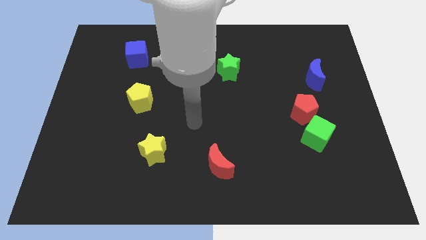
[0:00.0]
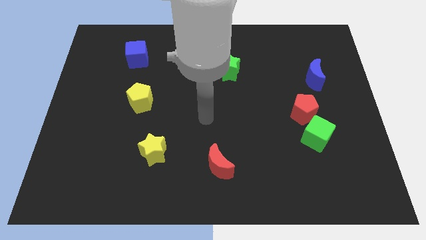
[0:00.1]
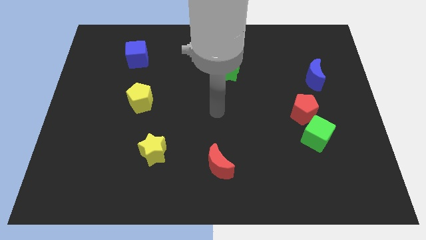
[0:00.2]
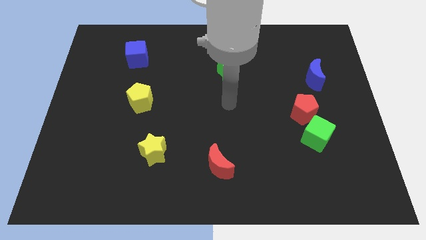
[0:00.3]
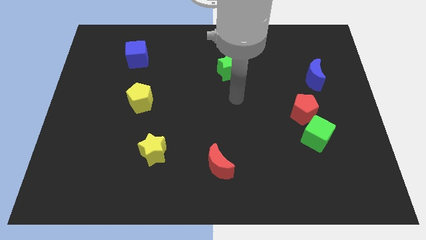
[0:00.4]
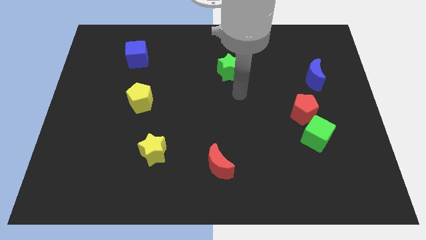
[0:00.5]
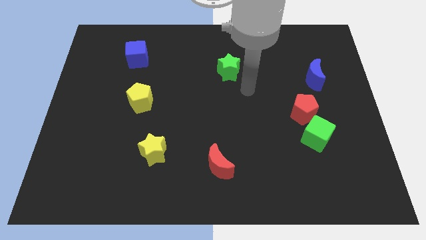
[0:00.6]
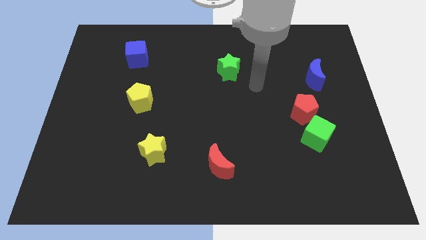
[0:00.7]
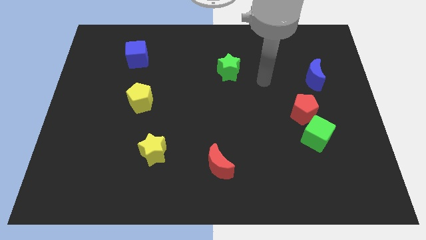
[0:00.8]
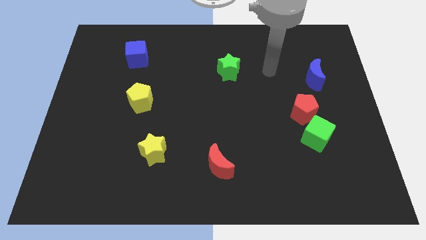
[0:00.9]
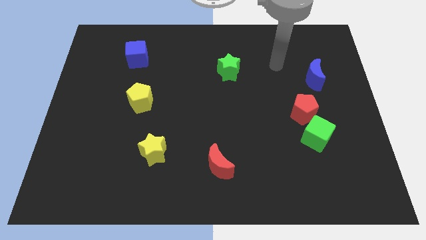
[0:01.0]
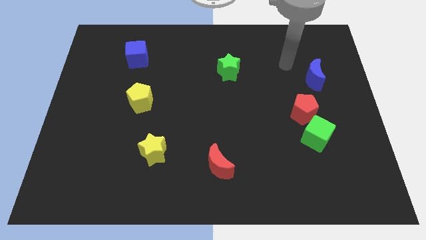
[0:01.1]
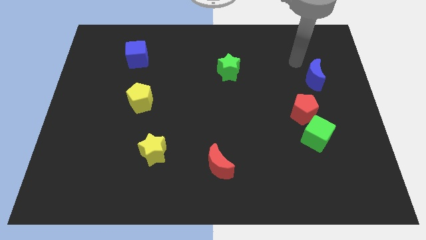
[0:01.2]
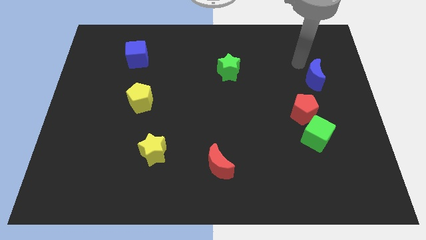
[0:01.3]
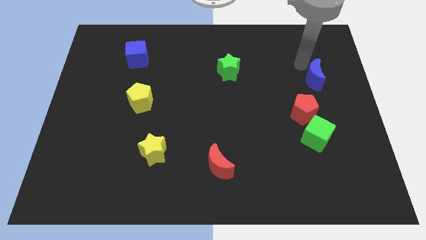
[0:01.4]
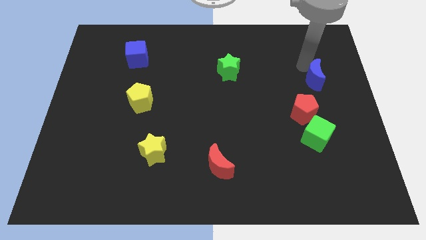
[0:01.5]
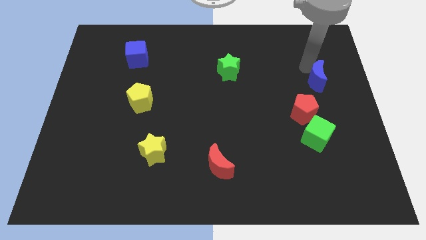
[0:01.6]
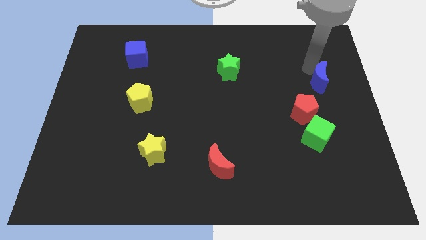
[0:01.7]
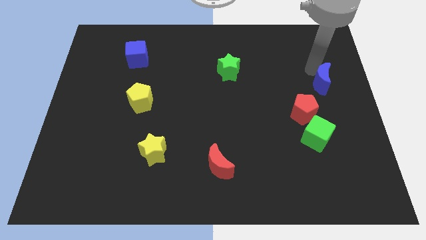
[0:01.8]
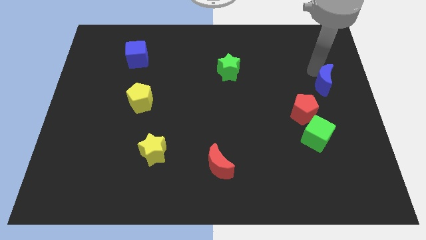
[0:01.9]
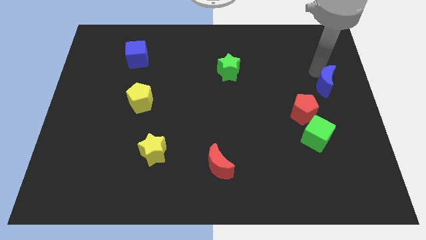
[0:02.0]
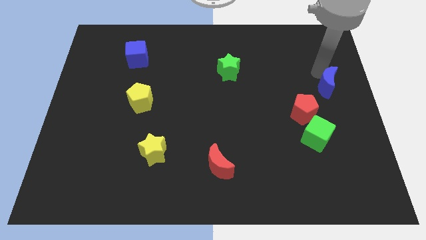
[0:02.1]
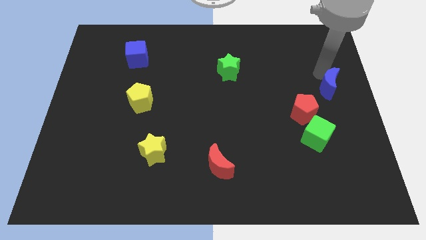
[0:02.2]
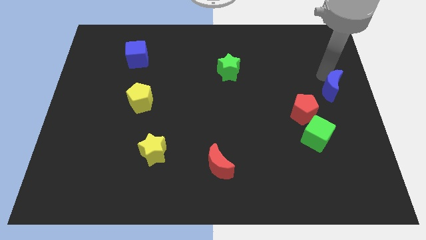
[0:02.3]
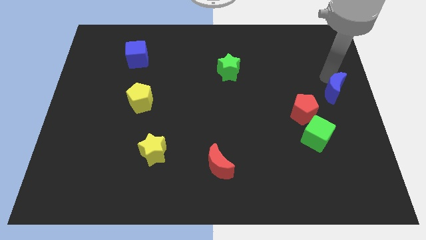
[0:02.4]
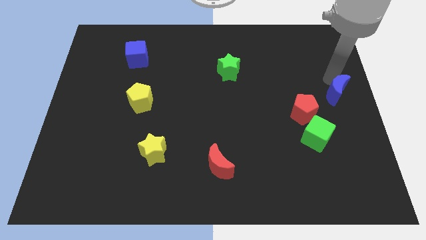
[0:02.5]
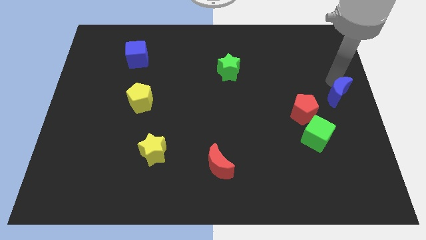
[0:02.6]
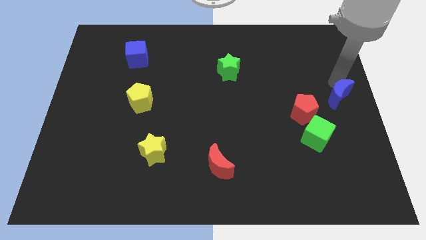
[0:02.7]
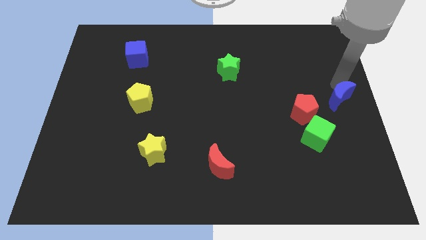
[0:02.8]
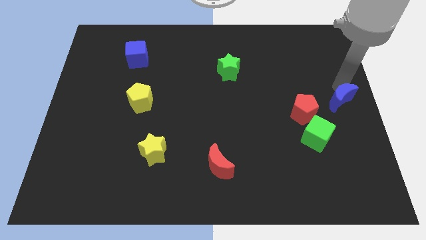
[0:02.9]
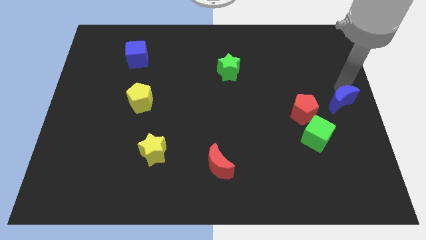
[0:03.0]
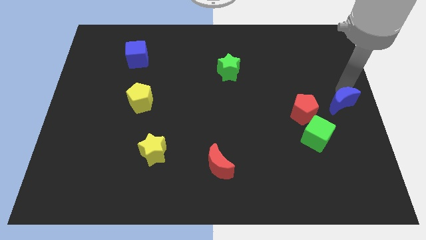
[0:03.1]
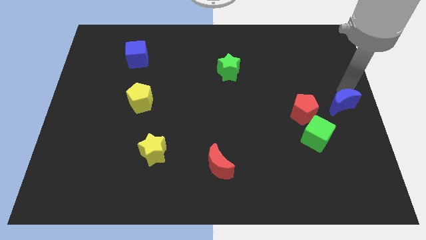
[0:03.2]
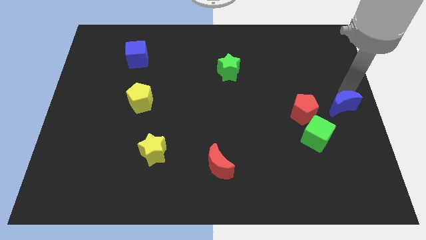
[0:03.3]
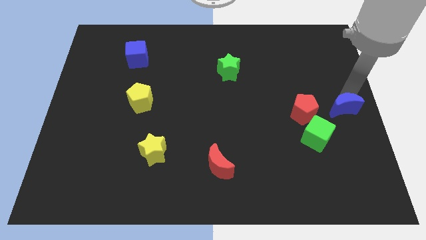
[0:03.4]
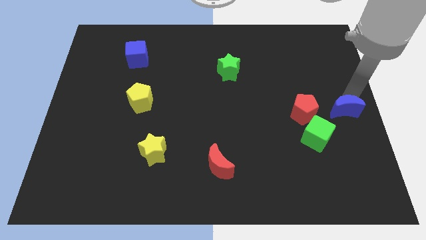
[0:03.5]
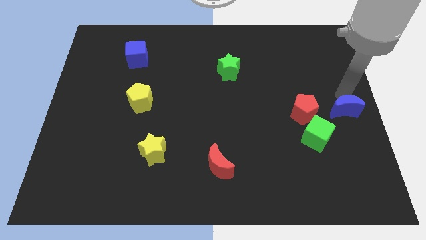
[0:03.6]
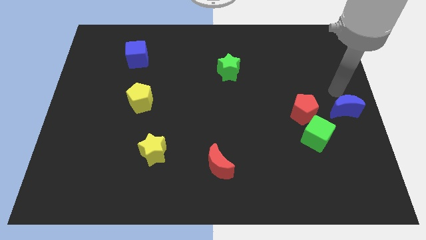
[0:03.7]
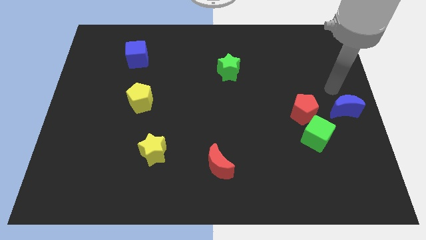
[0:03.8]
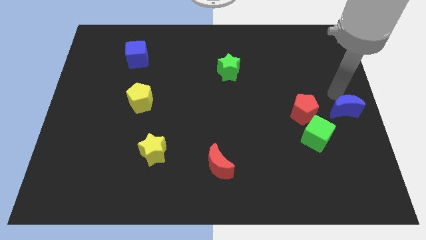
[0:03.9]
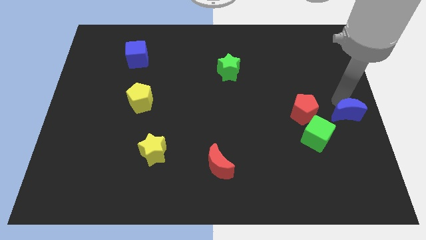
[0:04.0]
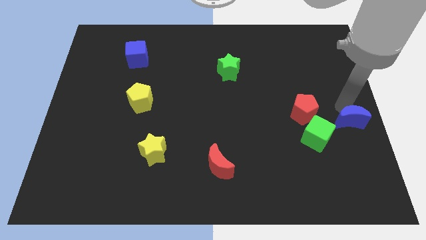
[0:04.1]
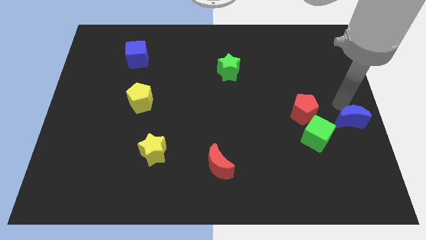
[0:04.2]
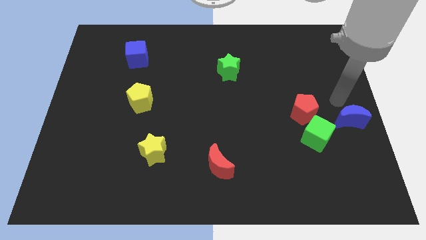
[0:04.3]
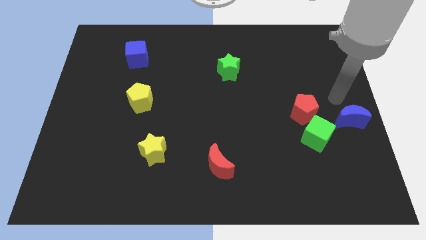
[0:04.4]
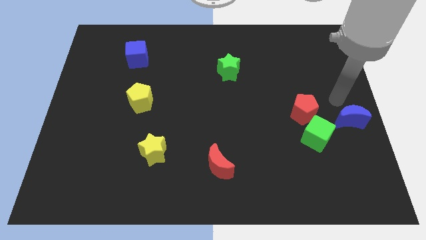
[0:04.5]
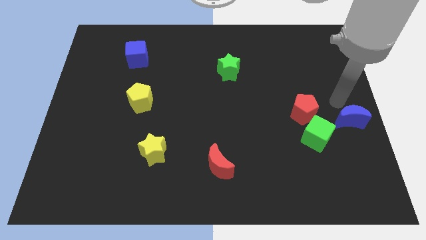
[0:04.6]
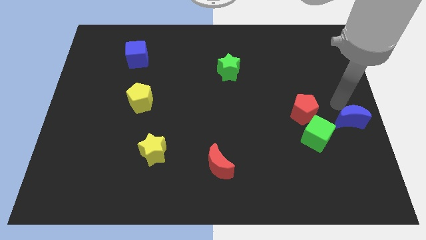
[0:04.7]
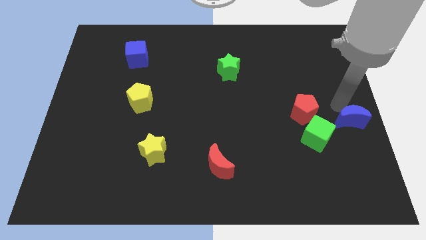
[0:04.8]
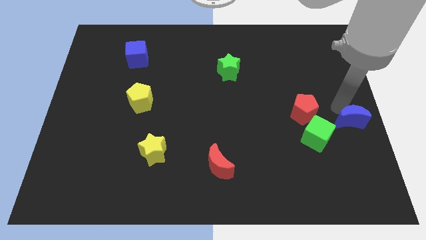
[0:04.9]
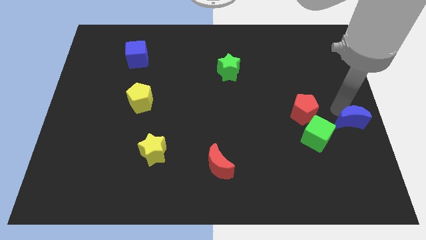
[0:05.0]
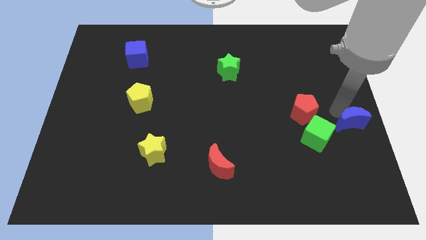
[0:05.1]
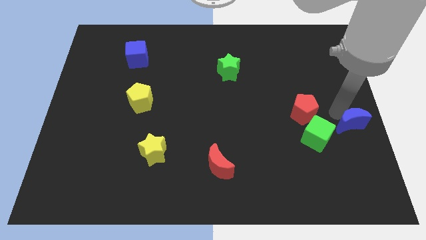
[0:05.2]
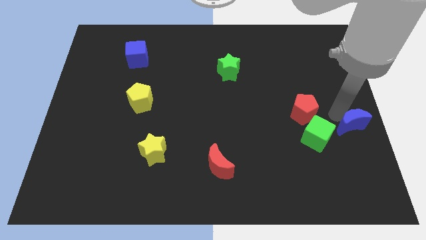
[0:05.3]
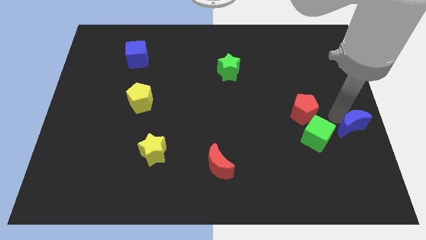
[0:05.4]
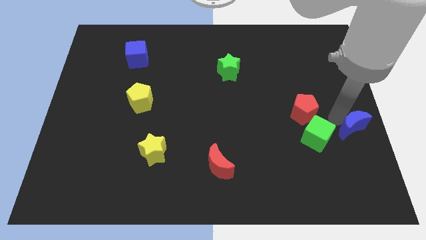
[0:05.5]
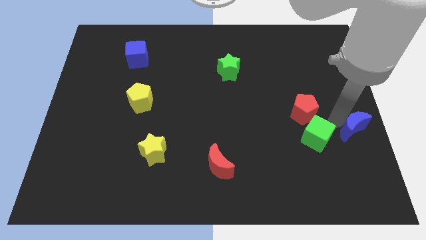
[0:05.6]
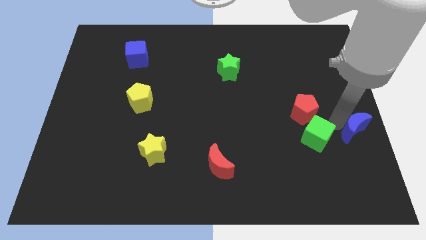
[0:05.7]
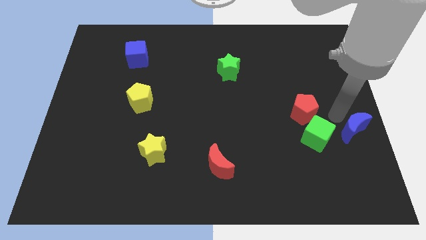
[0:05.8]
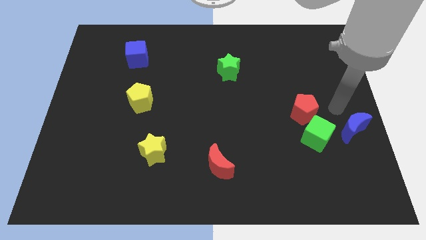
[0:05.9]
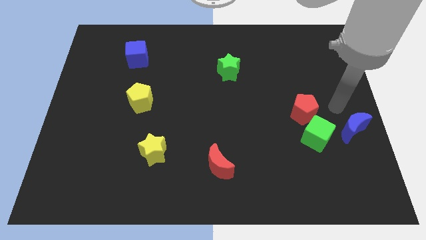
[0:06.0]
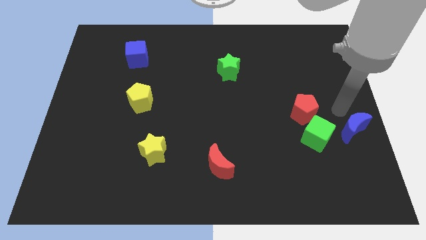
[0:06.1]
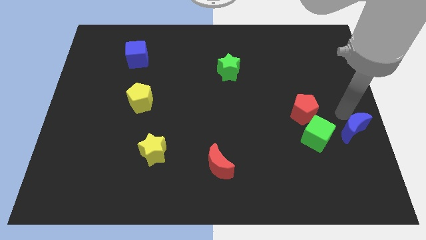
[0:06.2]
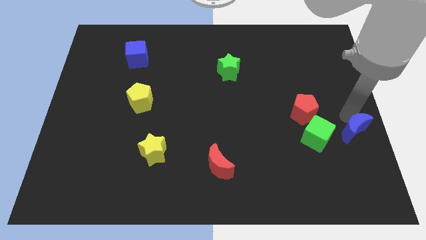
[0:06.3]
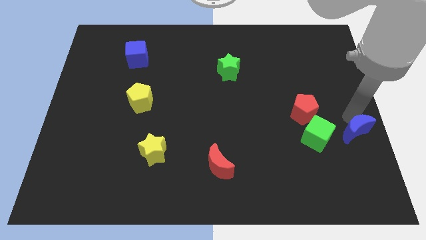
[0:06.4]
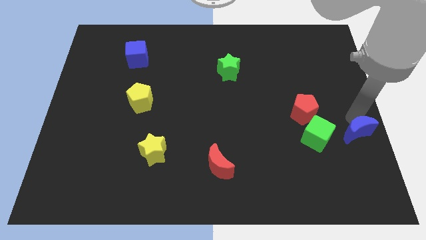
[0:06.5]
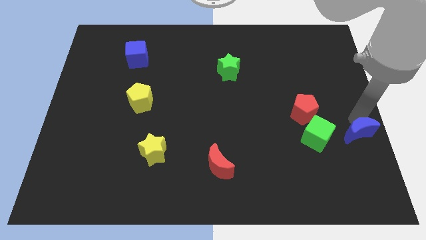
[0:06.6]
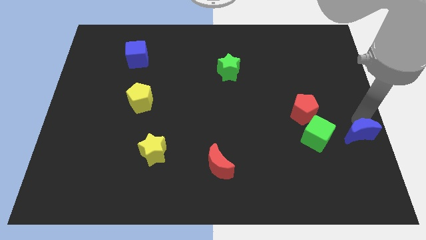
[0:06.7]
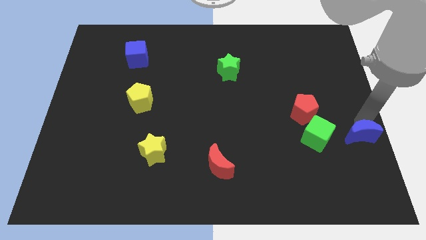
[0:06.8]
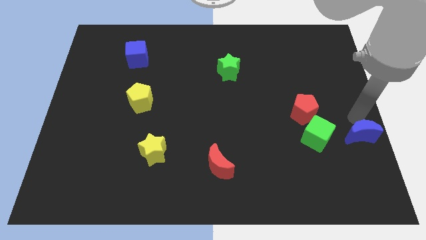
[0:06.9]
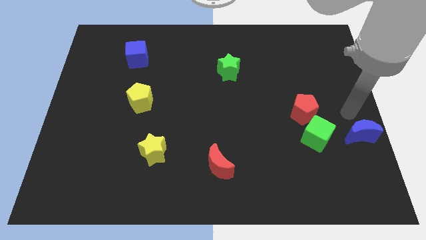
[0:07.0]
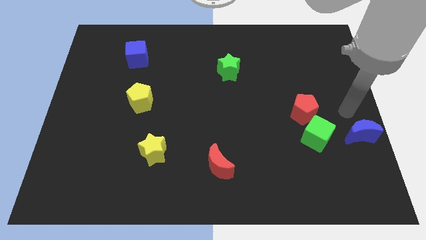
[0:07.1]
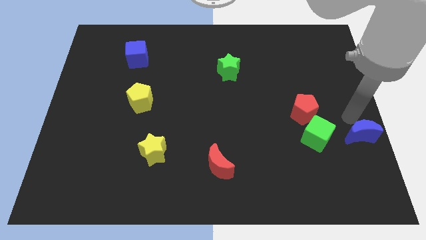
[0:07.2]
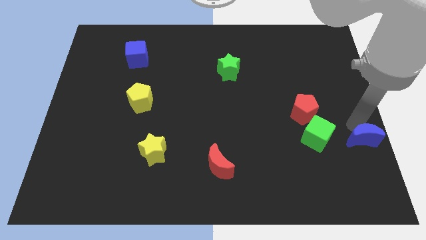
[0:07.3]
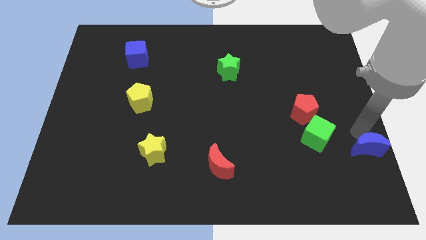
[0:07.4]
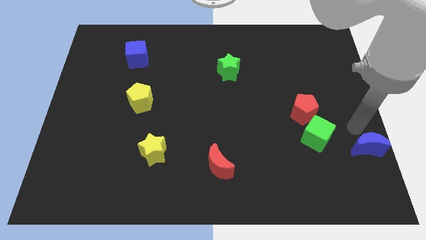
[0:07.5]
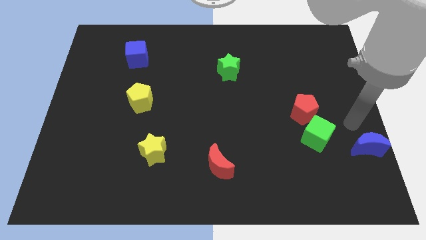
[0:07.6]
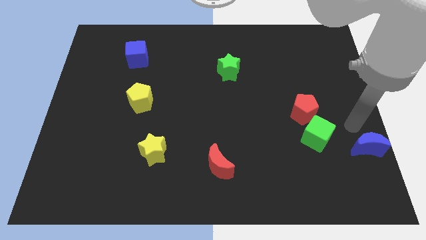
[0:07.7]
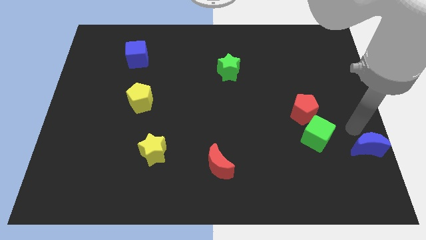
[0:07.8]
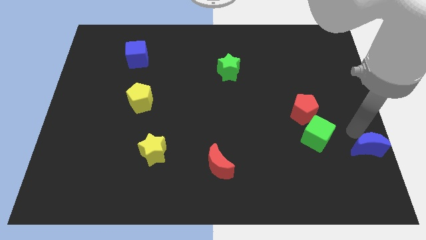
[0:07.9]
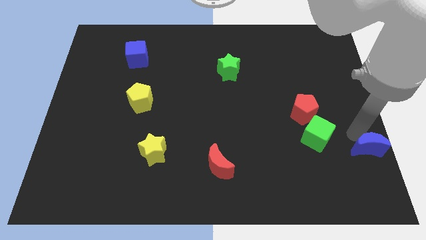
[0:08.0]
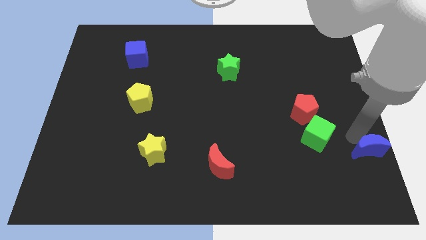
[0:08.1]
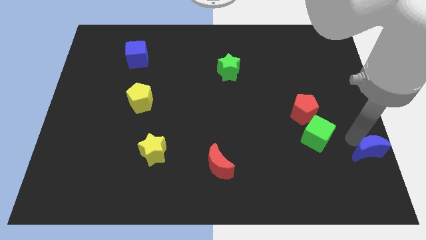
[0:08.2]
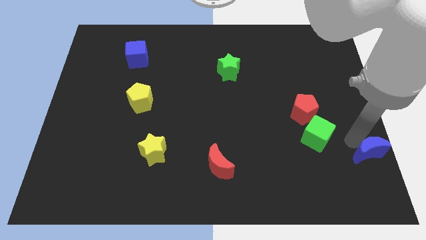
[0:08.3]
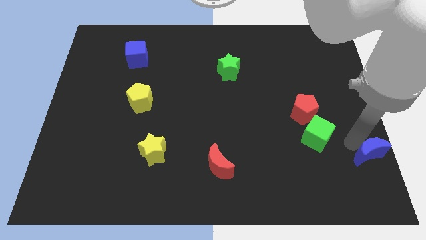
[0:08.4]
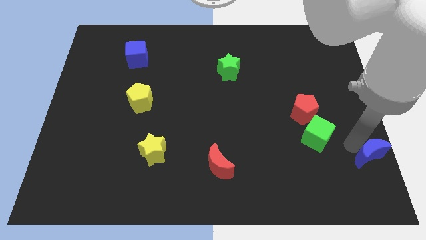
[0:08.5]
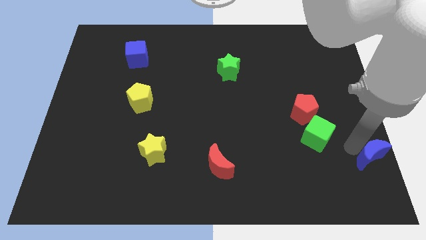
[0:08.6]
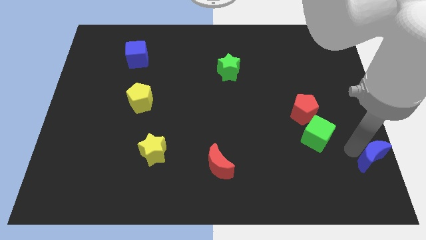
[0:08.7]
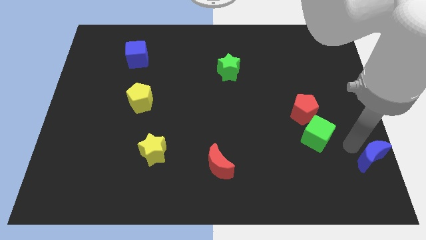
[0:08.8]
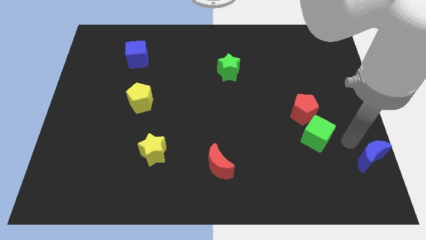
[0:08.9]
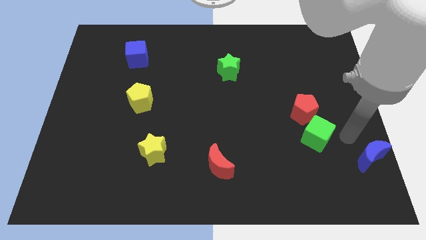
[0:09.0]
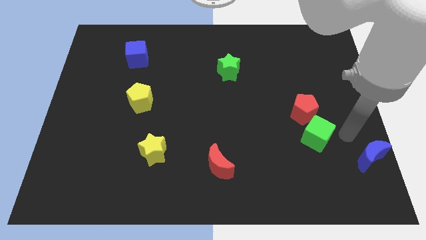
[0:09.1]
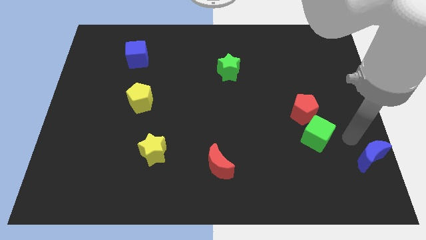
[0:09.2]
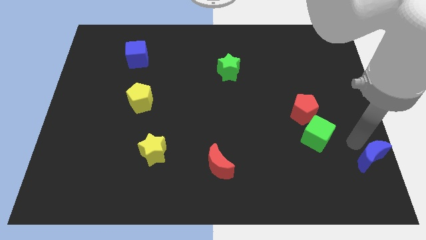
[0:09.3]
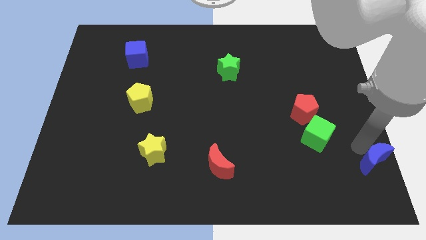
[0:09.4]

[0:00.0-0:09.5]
push the blue moon to the bottom right of the board
